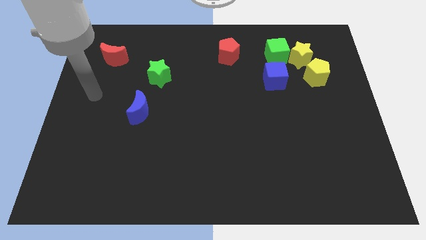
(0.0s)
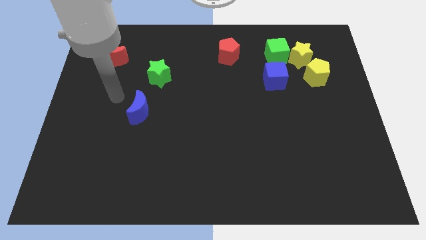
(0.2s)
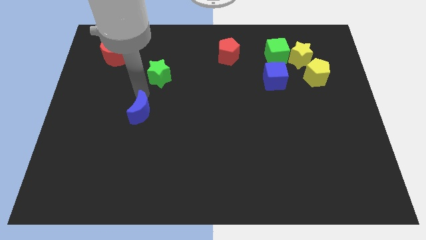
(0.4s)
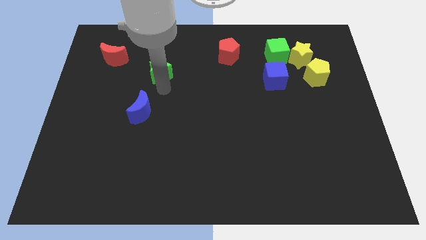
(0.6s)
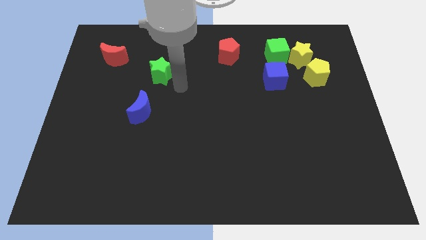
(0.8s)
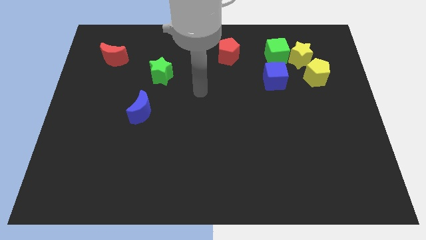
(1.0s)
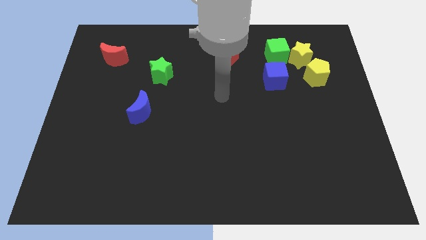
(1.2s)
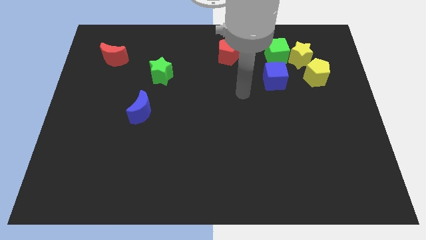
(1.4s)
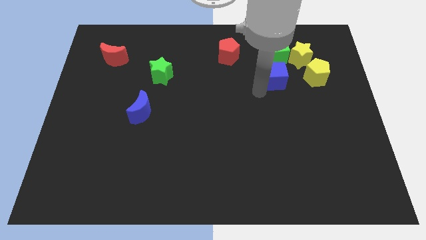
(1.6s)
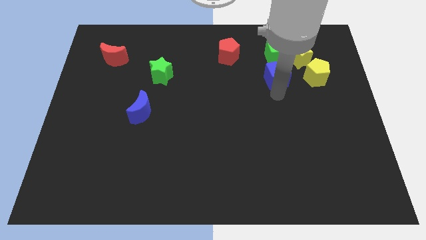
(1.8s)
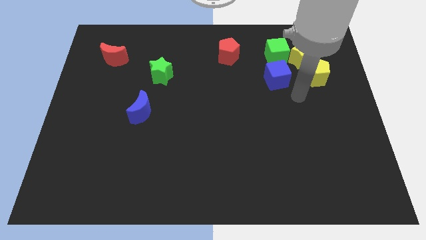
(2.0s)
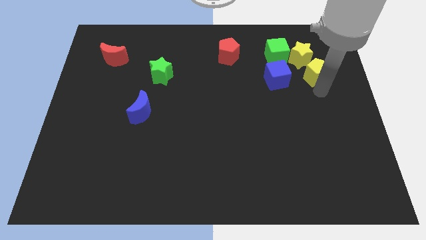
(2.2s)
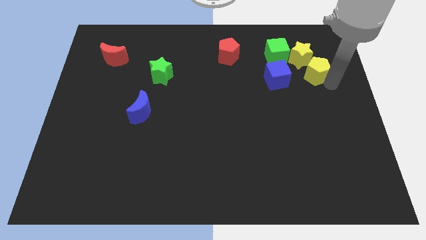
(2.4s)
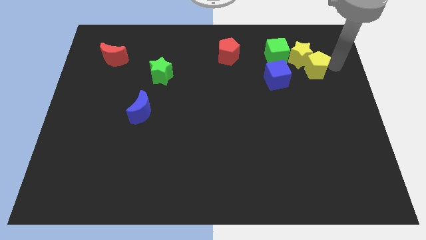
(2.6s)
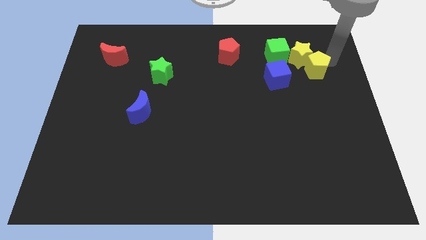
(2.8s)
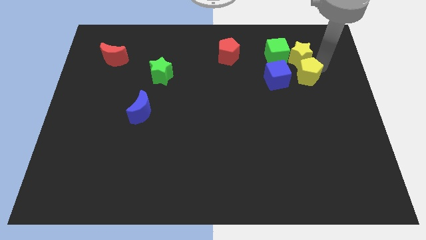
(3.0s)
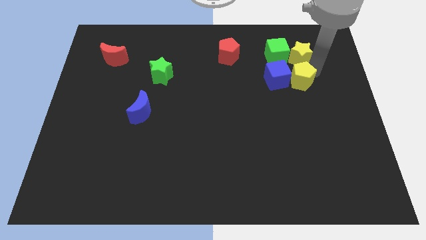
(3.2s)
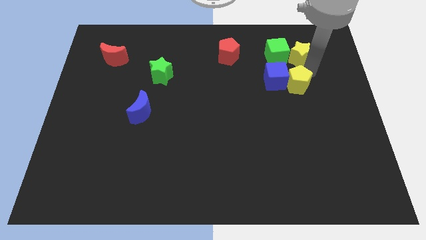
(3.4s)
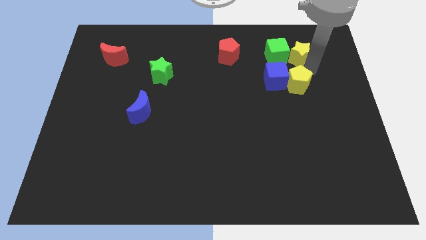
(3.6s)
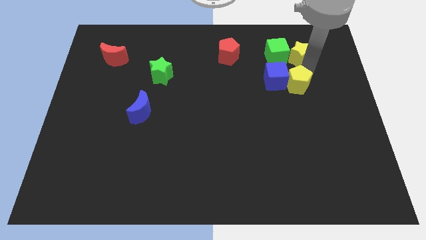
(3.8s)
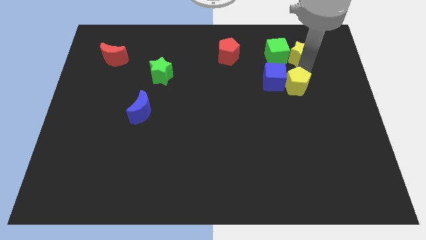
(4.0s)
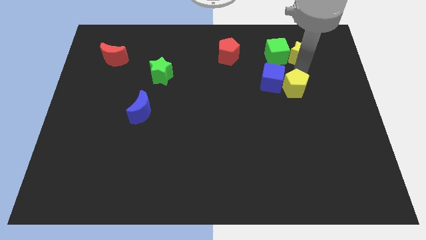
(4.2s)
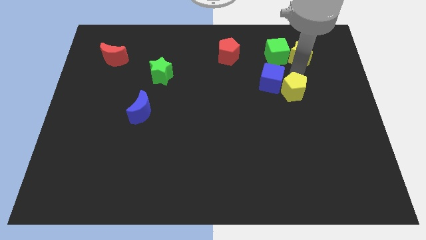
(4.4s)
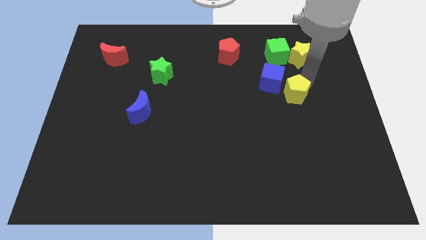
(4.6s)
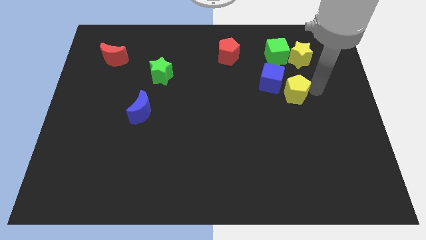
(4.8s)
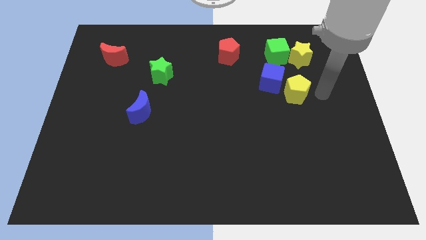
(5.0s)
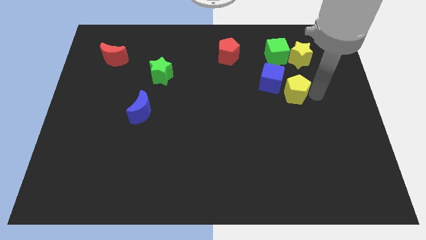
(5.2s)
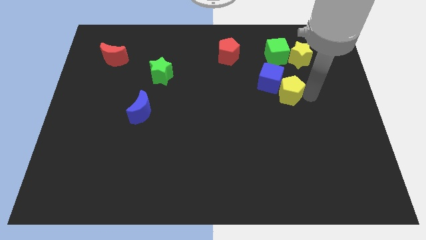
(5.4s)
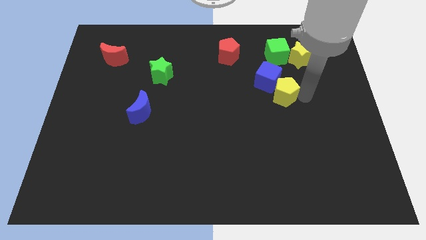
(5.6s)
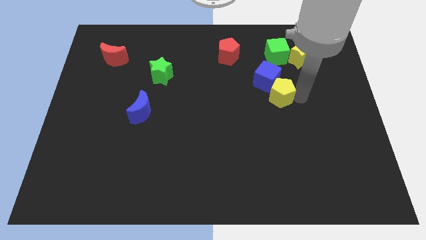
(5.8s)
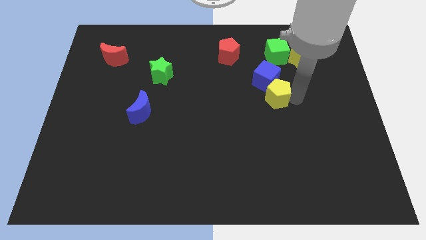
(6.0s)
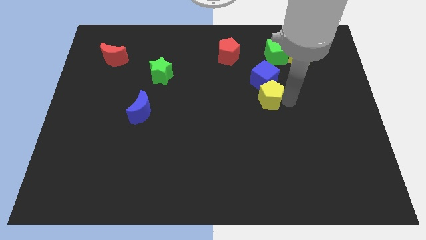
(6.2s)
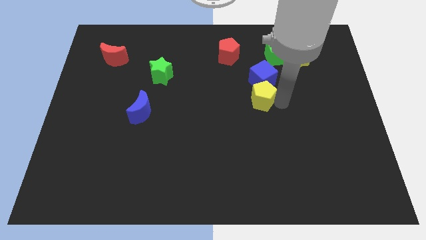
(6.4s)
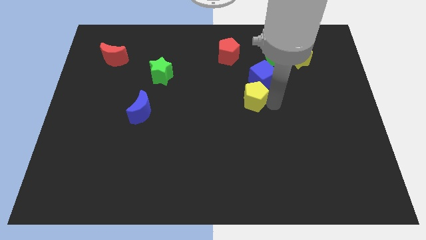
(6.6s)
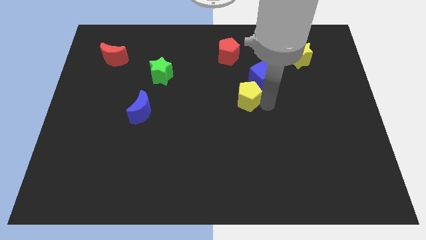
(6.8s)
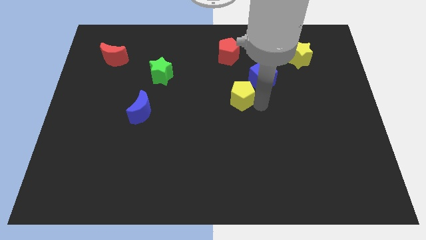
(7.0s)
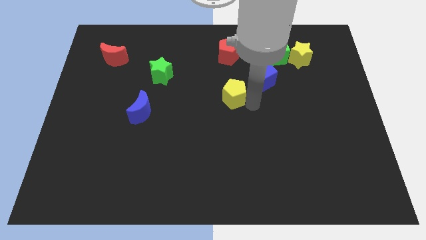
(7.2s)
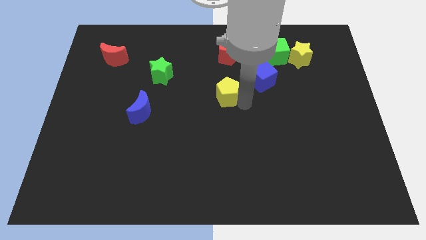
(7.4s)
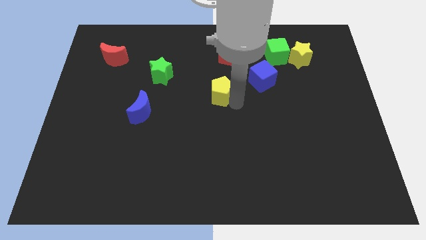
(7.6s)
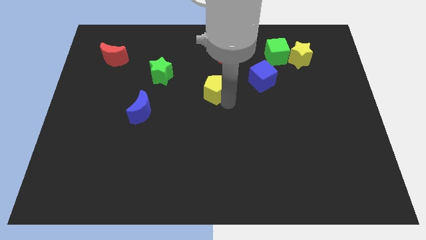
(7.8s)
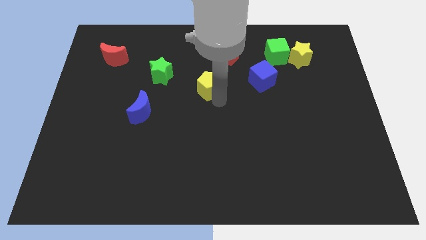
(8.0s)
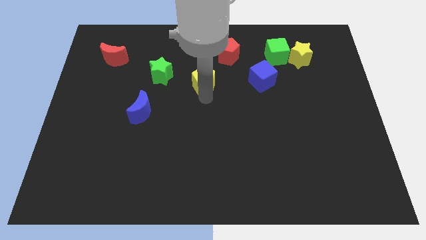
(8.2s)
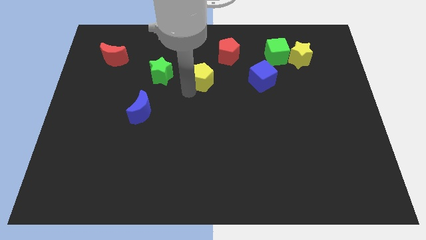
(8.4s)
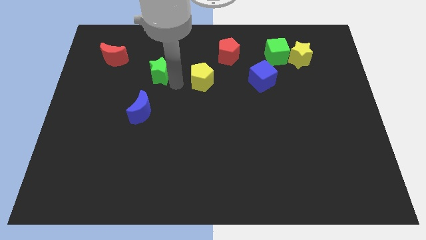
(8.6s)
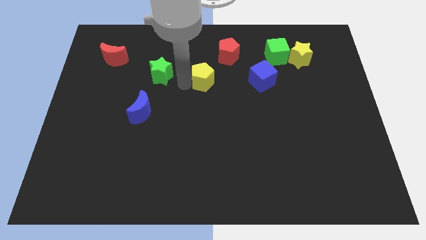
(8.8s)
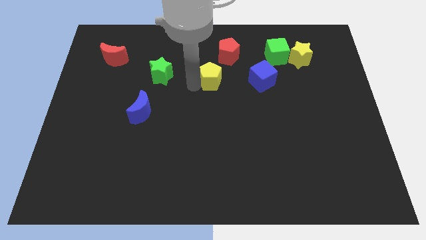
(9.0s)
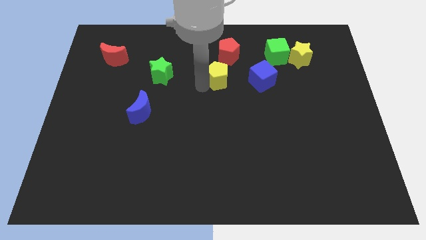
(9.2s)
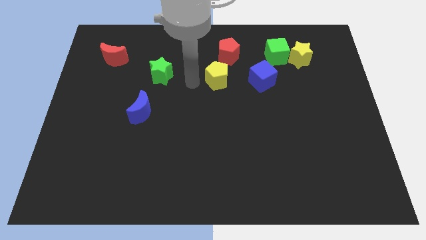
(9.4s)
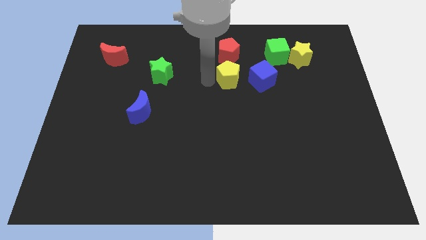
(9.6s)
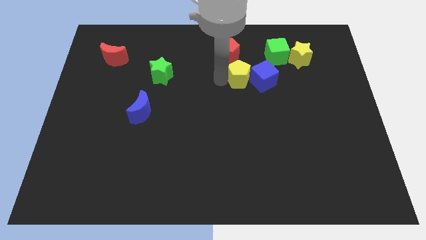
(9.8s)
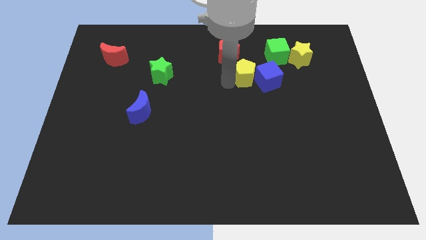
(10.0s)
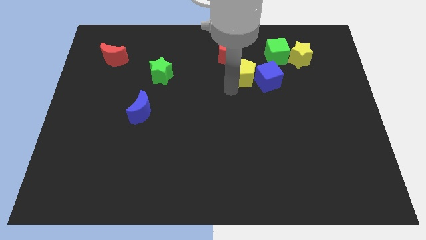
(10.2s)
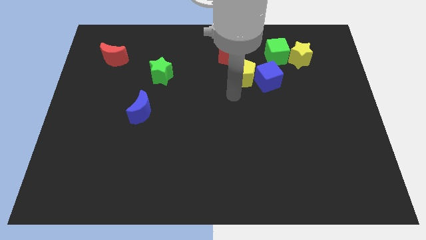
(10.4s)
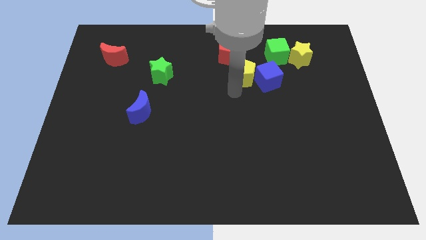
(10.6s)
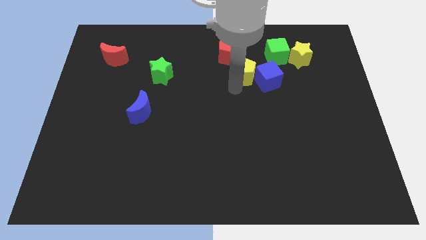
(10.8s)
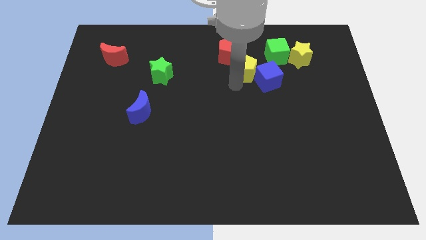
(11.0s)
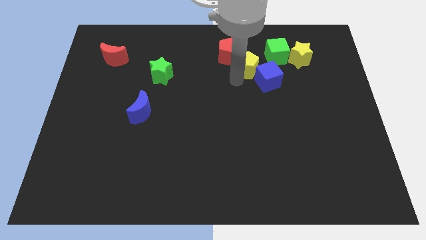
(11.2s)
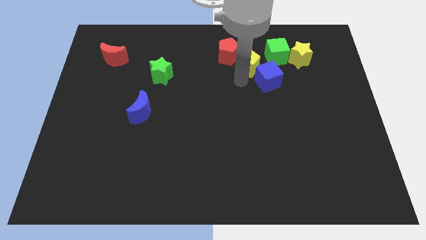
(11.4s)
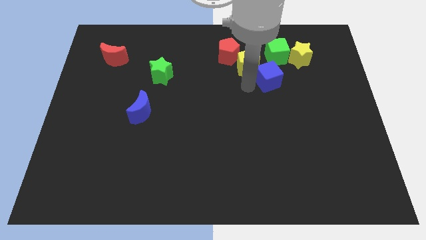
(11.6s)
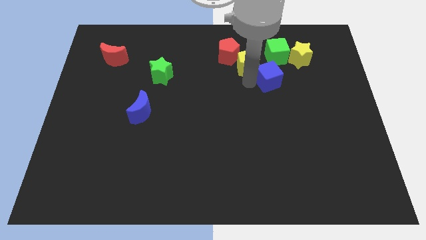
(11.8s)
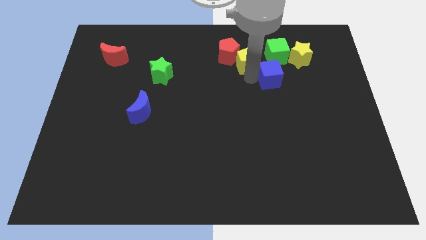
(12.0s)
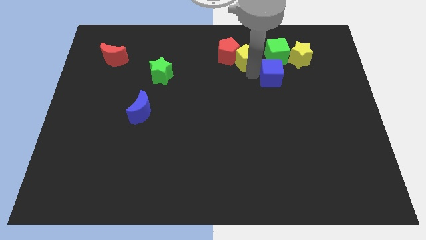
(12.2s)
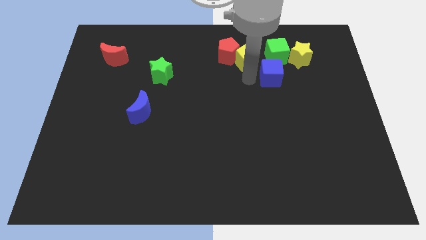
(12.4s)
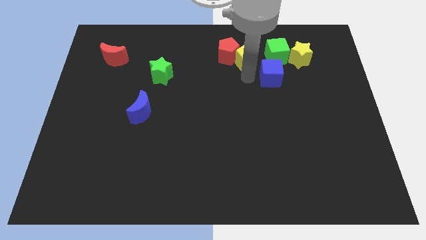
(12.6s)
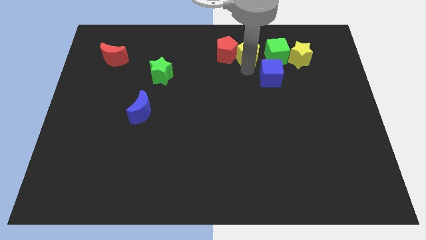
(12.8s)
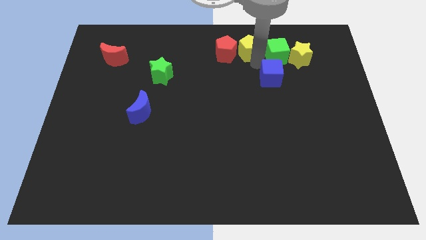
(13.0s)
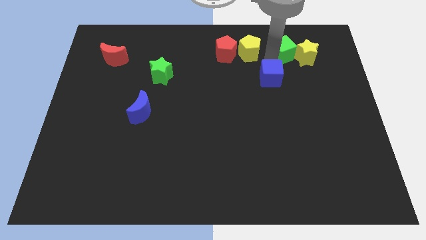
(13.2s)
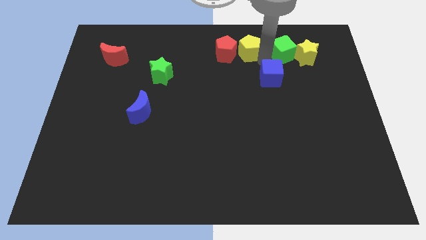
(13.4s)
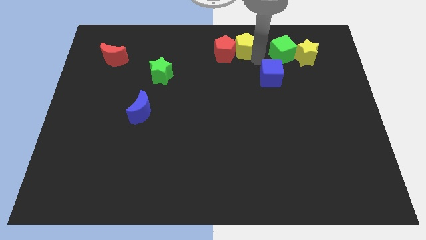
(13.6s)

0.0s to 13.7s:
move the yellow pentagon to the top side

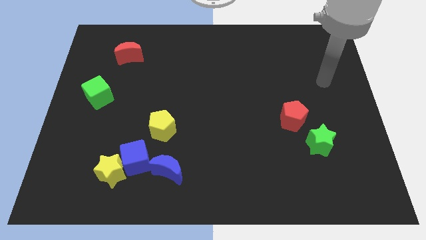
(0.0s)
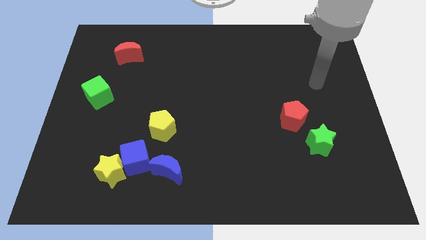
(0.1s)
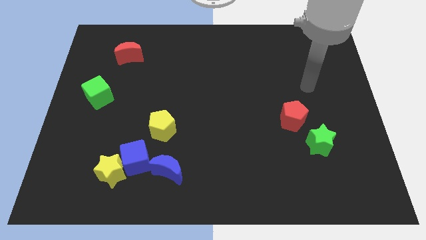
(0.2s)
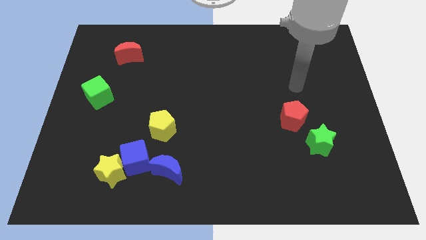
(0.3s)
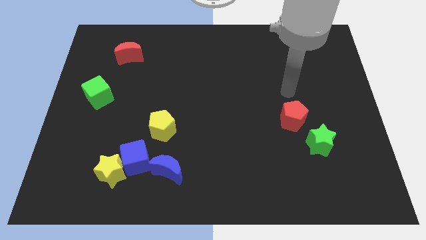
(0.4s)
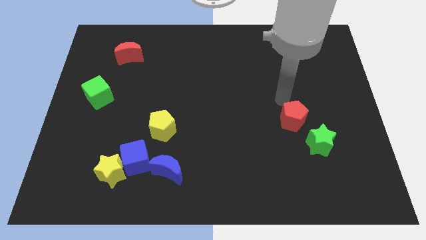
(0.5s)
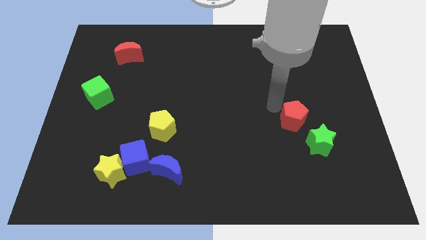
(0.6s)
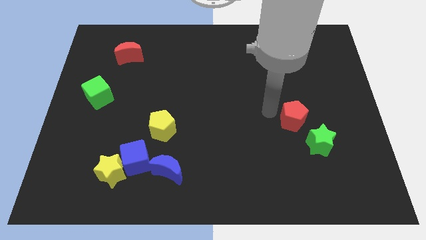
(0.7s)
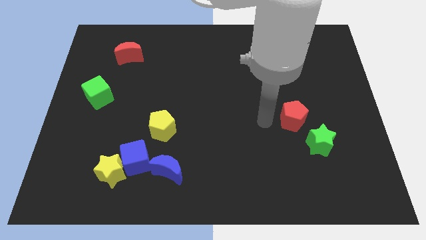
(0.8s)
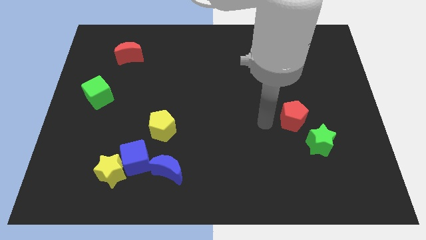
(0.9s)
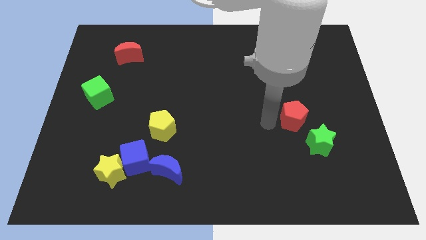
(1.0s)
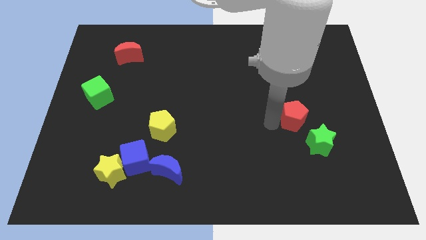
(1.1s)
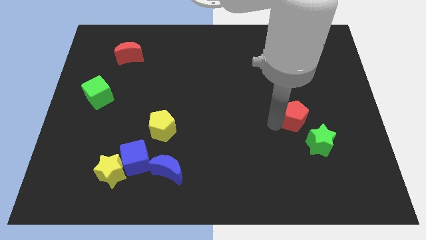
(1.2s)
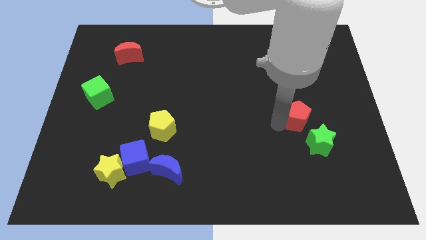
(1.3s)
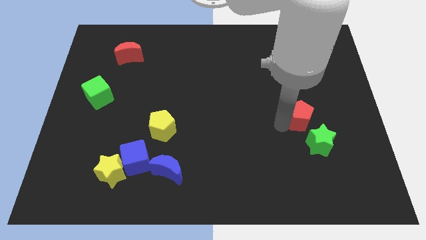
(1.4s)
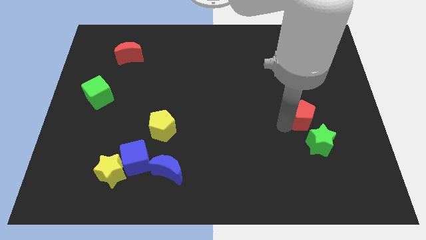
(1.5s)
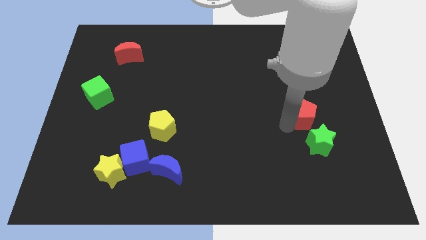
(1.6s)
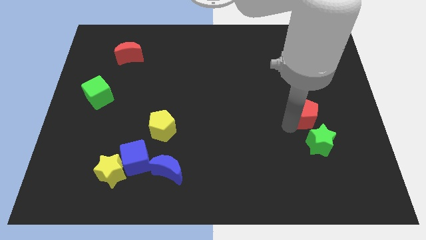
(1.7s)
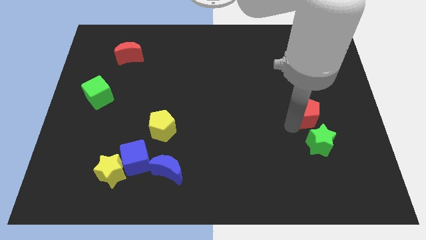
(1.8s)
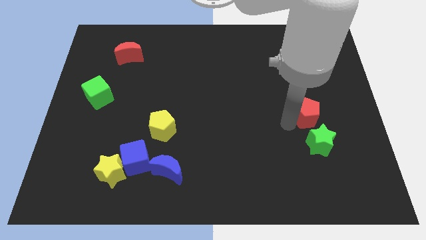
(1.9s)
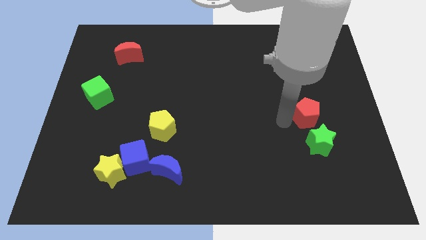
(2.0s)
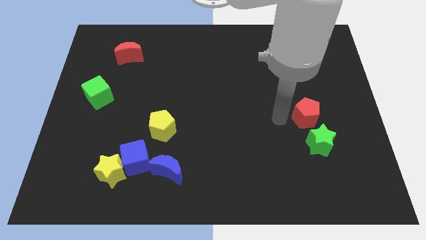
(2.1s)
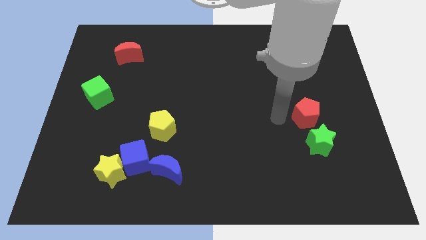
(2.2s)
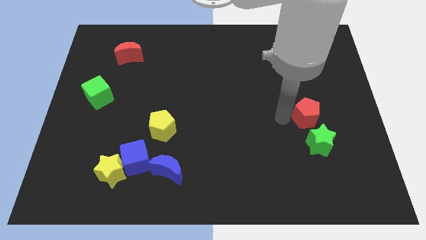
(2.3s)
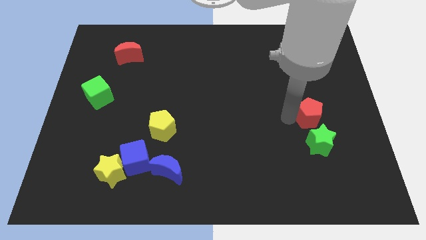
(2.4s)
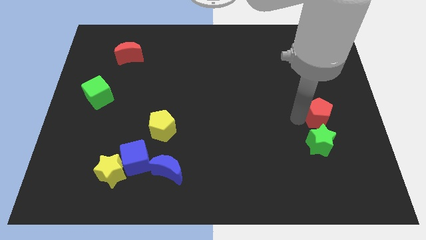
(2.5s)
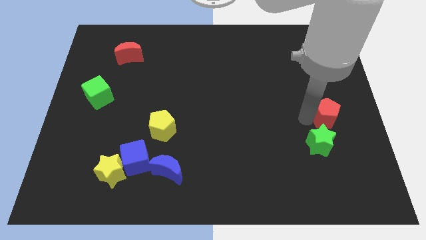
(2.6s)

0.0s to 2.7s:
move the red pentagon to the right side
